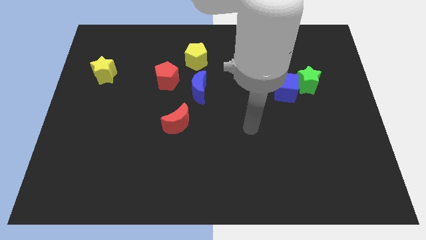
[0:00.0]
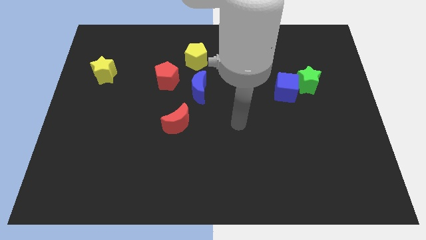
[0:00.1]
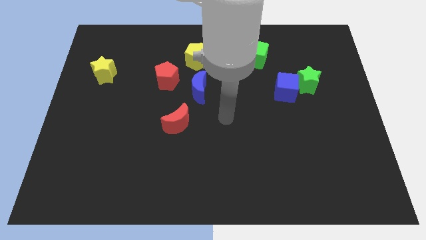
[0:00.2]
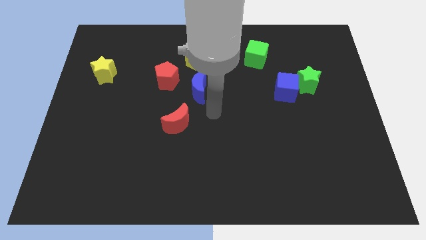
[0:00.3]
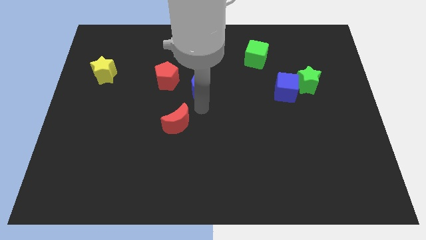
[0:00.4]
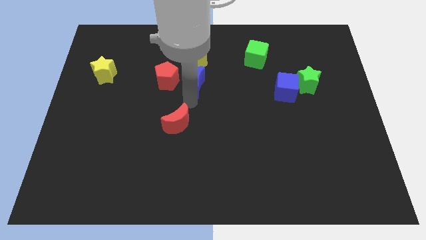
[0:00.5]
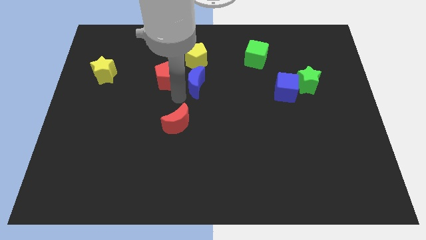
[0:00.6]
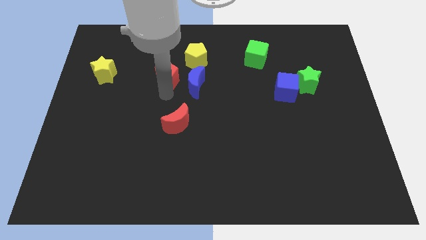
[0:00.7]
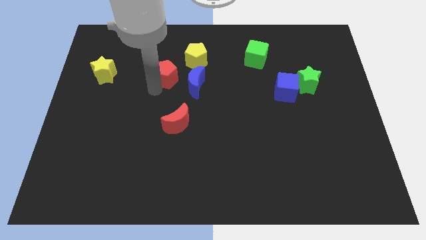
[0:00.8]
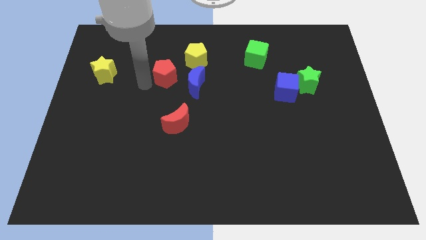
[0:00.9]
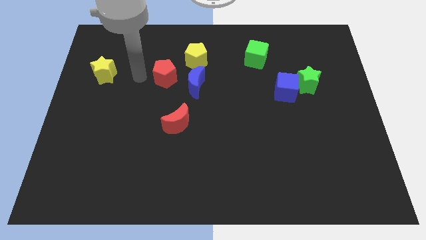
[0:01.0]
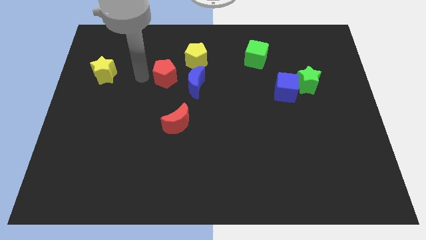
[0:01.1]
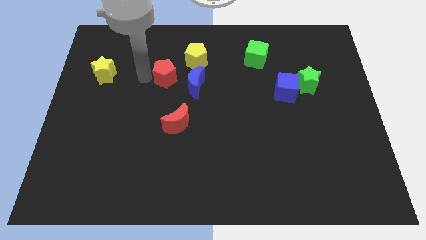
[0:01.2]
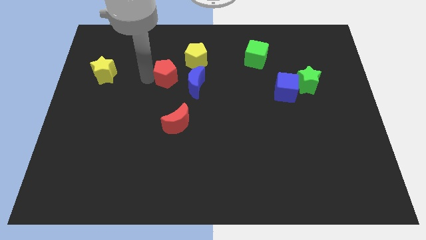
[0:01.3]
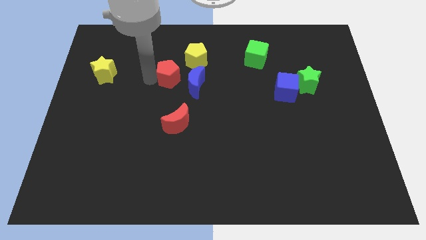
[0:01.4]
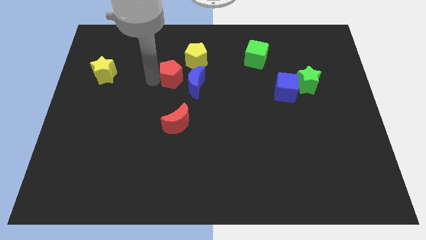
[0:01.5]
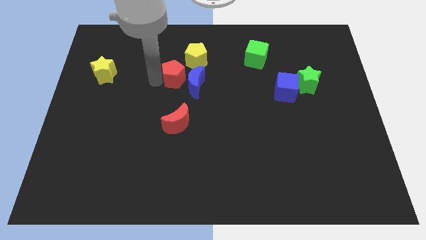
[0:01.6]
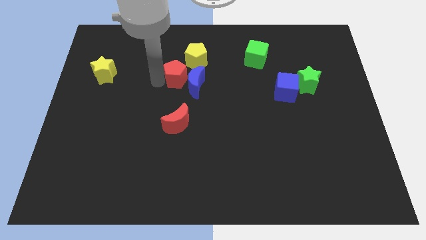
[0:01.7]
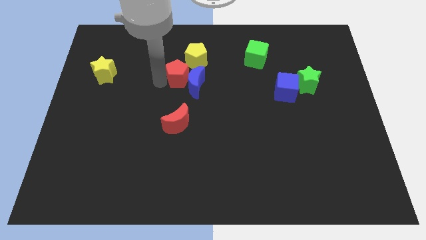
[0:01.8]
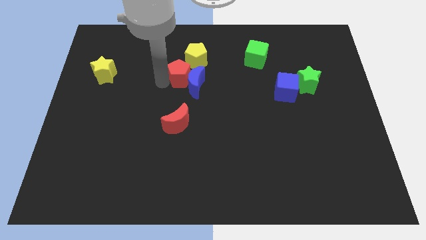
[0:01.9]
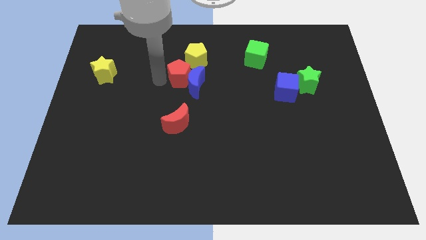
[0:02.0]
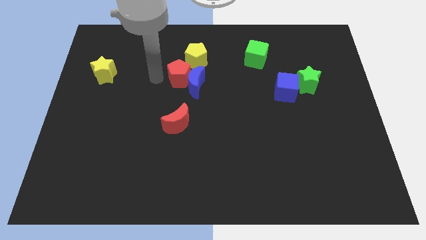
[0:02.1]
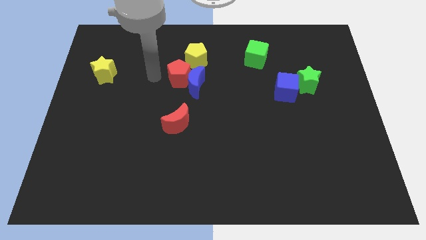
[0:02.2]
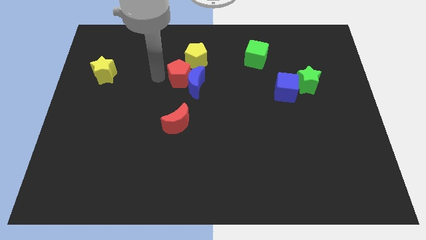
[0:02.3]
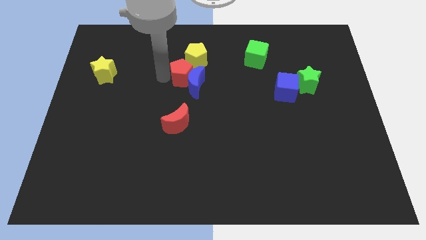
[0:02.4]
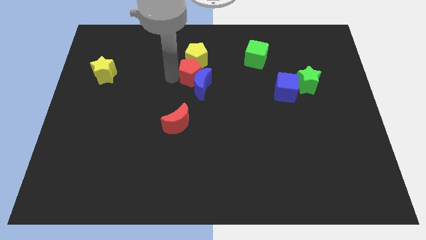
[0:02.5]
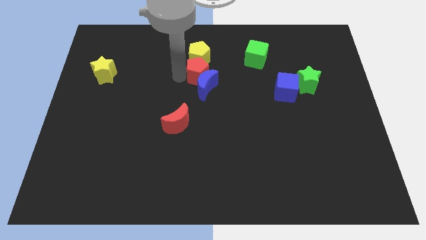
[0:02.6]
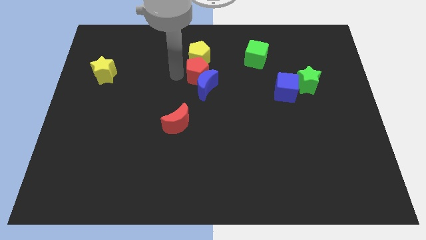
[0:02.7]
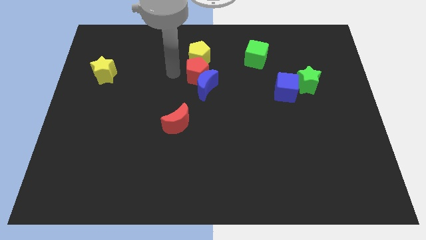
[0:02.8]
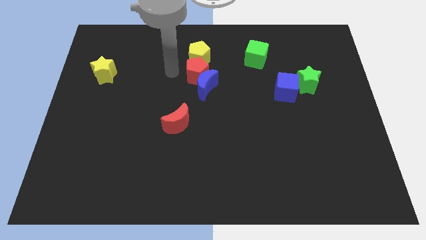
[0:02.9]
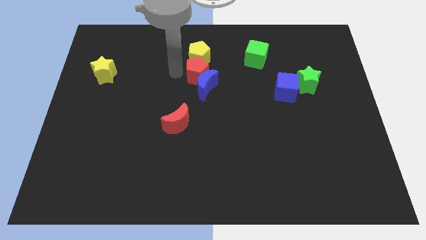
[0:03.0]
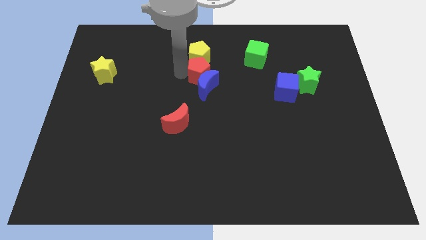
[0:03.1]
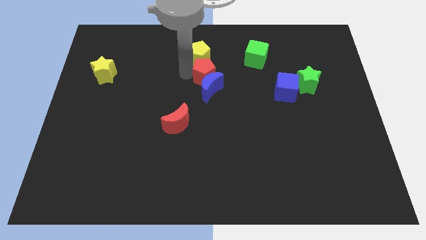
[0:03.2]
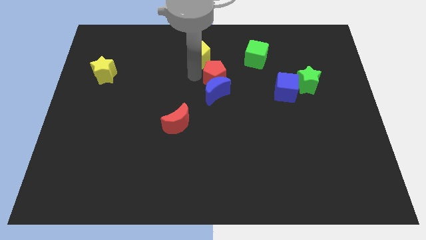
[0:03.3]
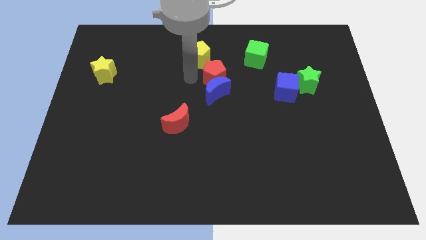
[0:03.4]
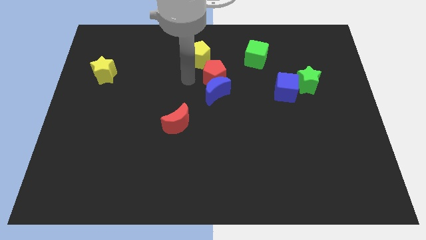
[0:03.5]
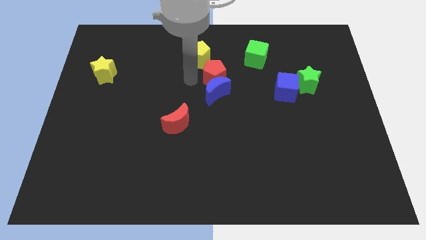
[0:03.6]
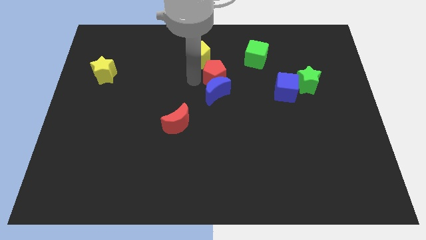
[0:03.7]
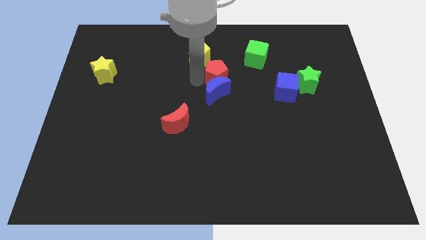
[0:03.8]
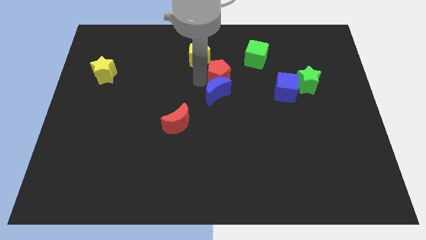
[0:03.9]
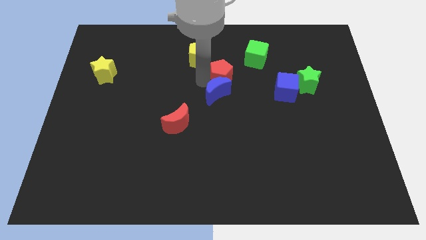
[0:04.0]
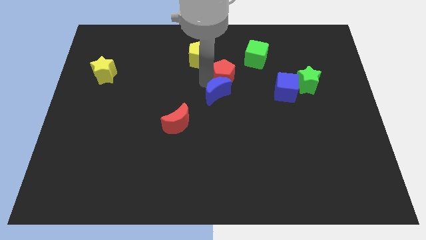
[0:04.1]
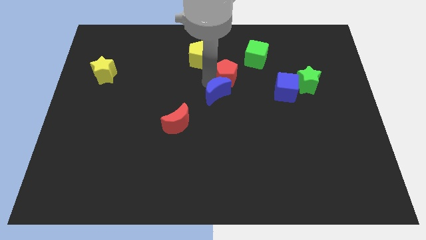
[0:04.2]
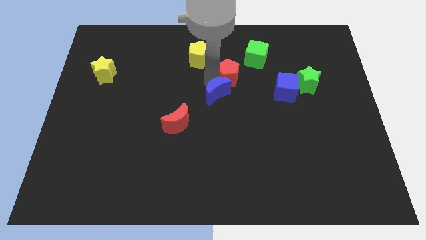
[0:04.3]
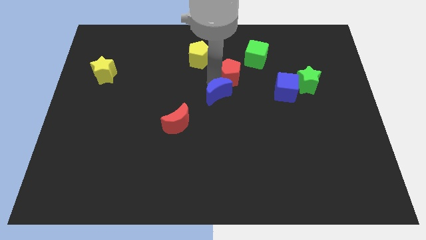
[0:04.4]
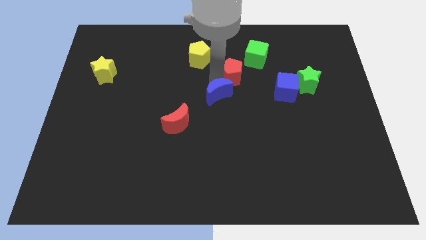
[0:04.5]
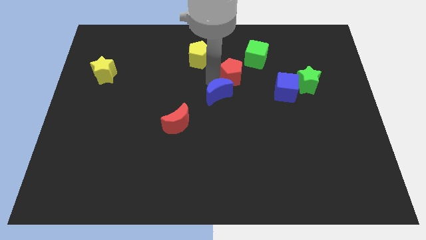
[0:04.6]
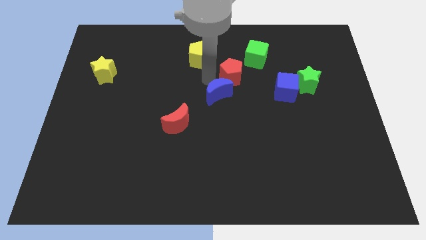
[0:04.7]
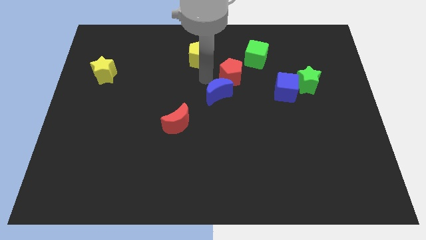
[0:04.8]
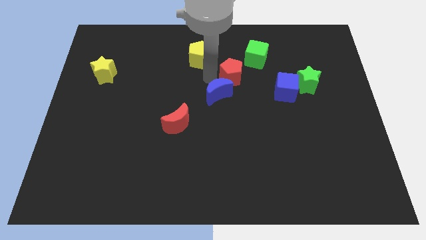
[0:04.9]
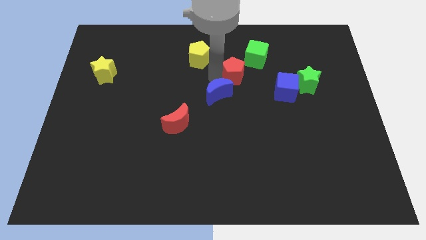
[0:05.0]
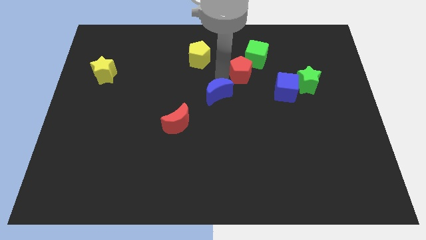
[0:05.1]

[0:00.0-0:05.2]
move the red pentagon diagonally up and to the left of the blue cube

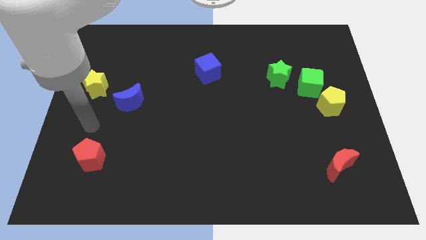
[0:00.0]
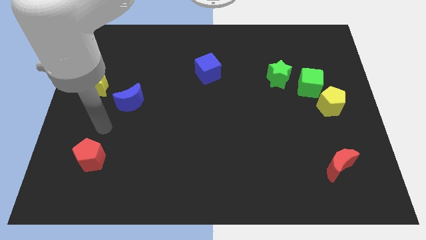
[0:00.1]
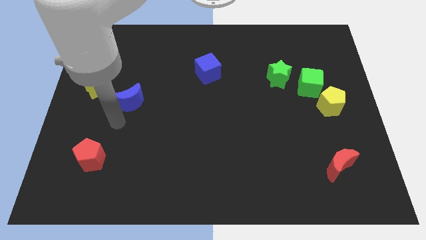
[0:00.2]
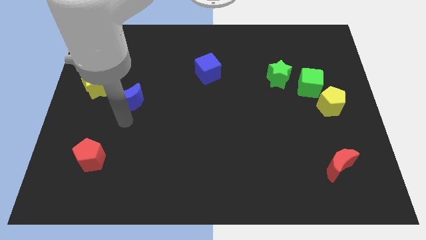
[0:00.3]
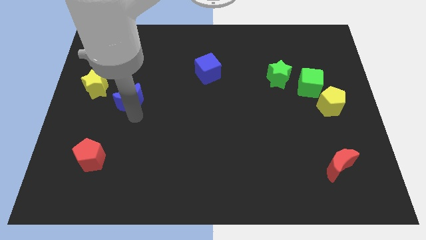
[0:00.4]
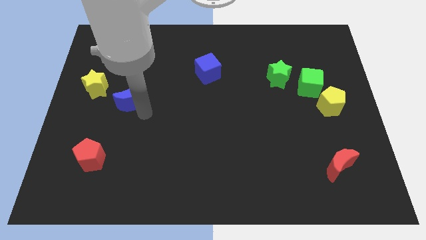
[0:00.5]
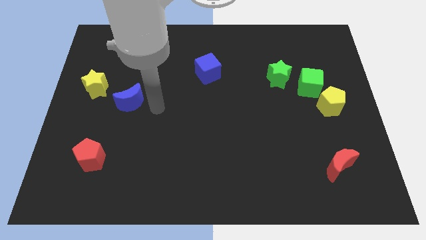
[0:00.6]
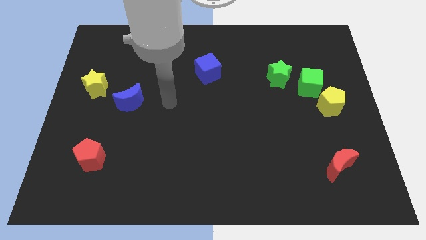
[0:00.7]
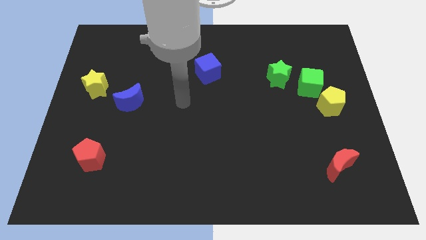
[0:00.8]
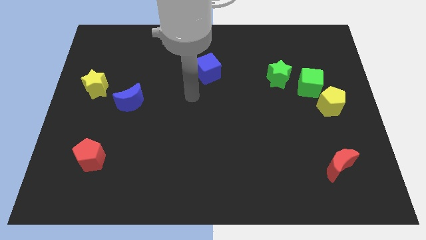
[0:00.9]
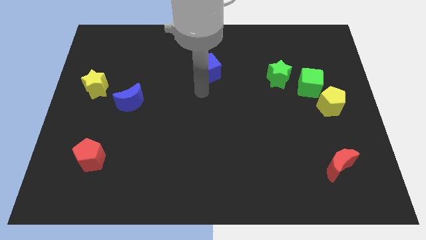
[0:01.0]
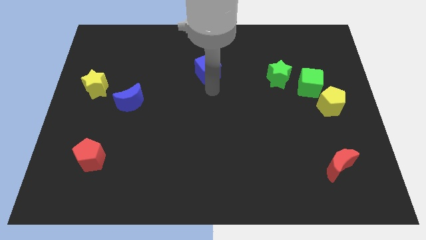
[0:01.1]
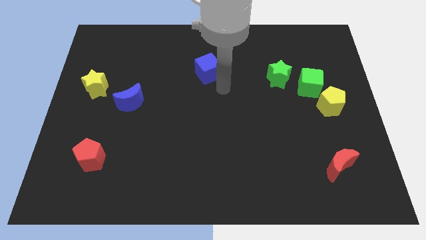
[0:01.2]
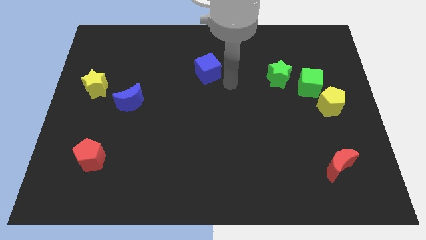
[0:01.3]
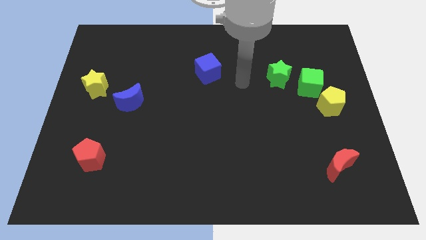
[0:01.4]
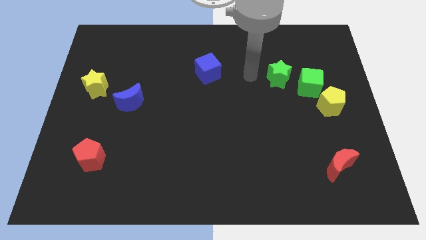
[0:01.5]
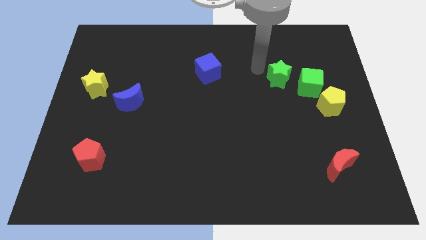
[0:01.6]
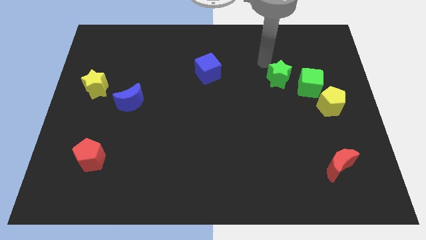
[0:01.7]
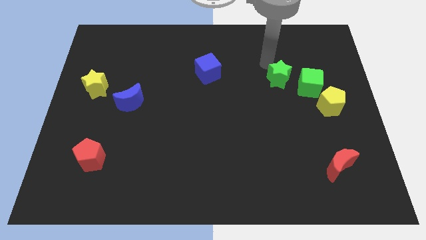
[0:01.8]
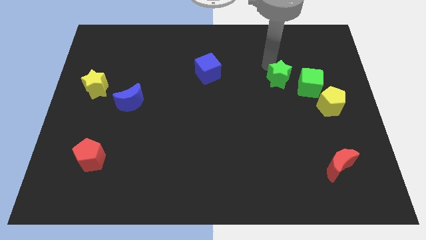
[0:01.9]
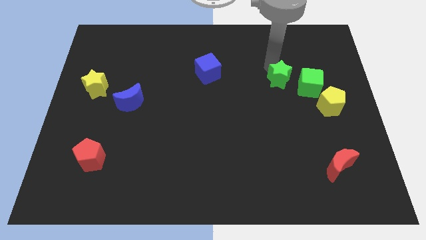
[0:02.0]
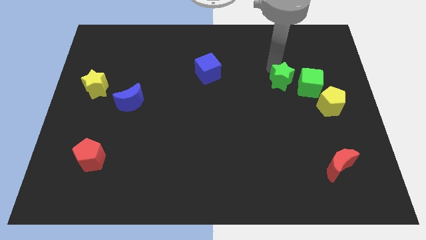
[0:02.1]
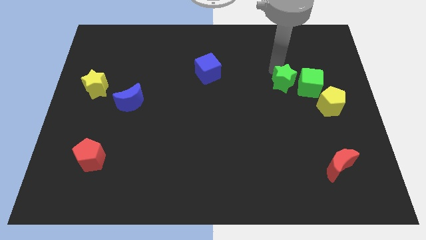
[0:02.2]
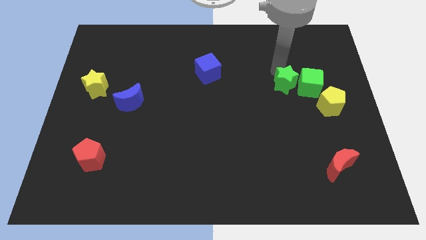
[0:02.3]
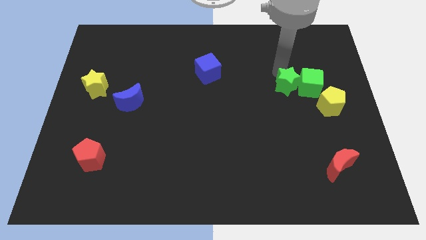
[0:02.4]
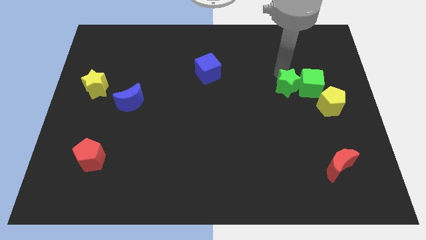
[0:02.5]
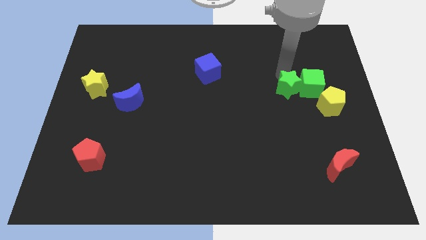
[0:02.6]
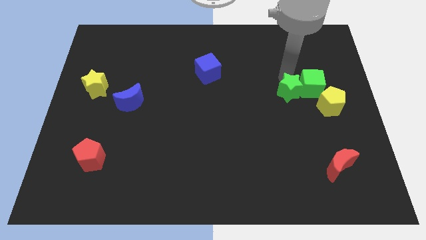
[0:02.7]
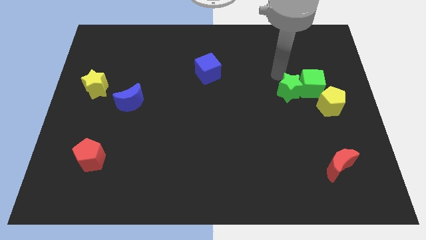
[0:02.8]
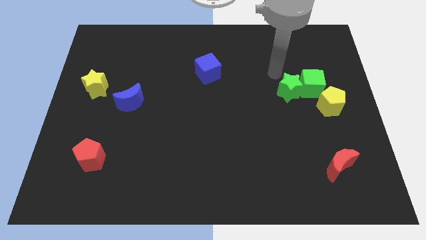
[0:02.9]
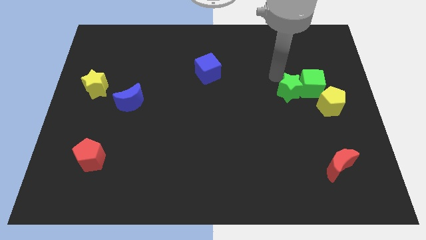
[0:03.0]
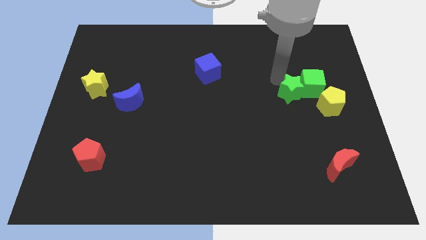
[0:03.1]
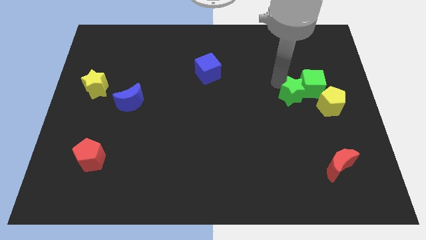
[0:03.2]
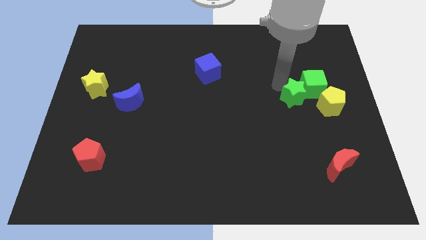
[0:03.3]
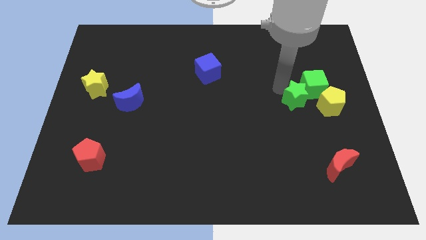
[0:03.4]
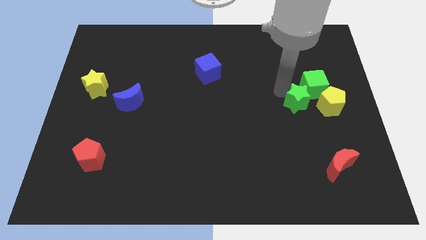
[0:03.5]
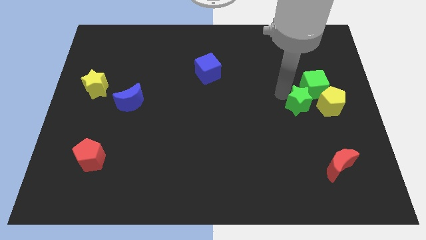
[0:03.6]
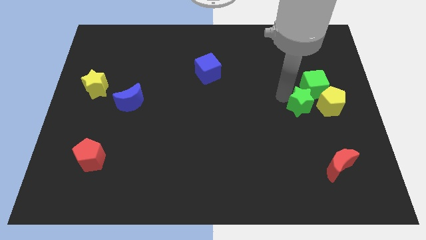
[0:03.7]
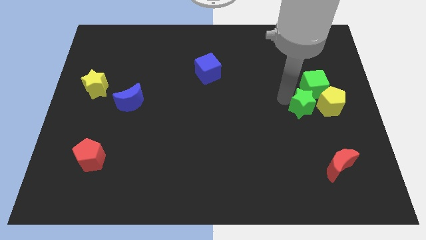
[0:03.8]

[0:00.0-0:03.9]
slide the green star to the bottom left of the yellow pentagon
